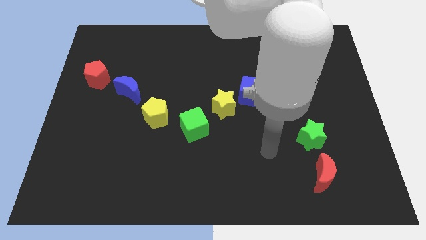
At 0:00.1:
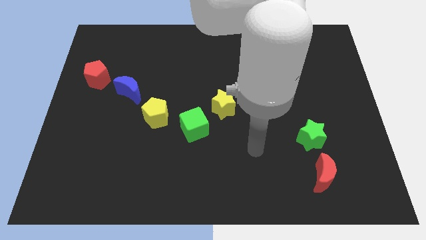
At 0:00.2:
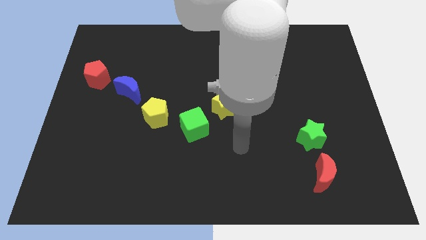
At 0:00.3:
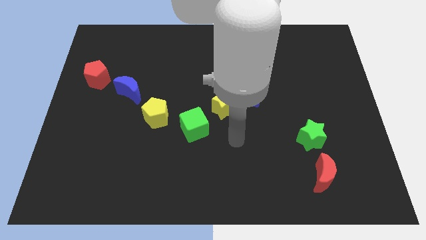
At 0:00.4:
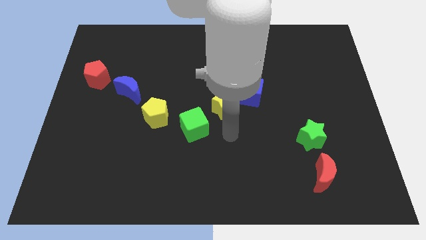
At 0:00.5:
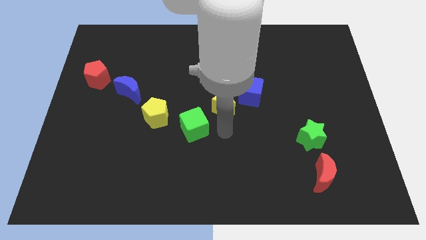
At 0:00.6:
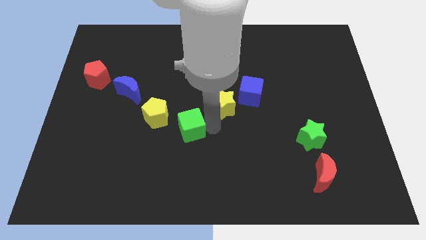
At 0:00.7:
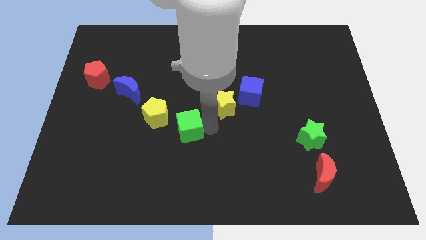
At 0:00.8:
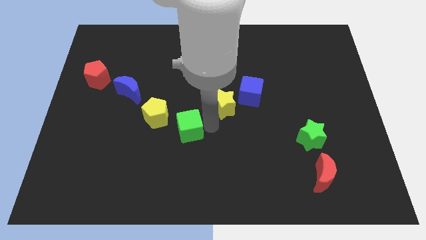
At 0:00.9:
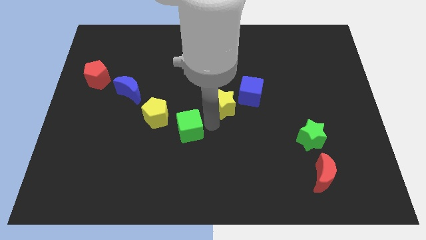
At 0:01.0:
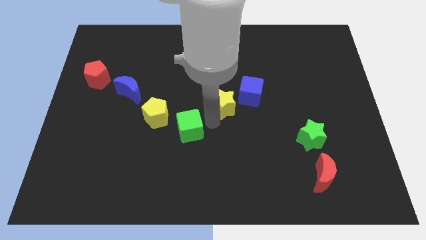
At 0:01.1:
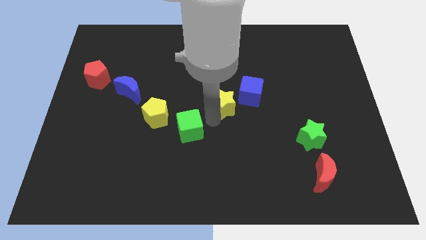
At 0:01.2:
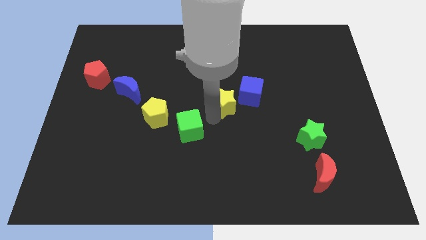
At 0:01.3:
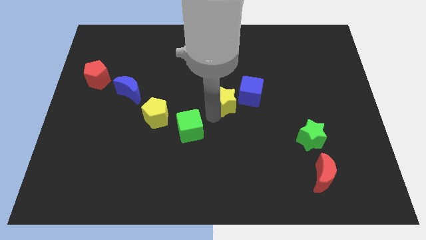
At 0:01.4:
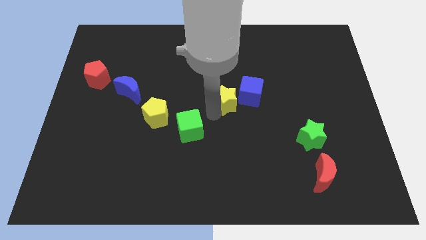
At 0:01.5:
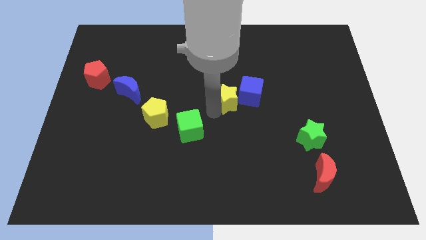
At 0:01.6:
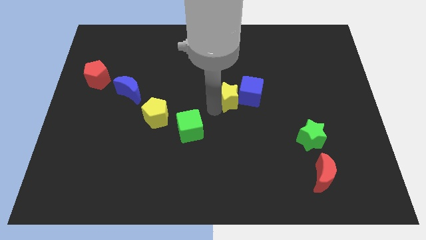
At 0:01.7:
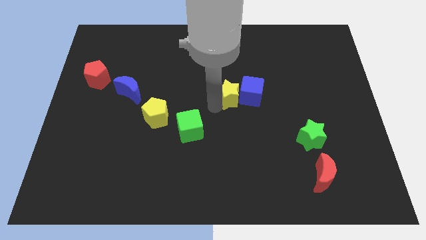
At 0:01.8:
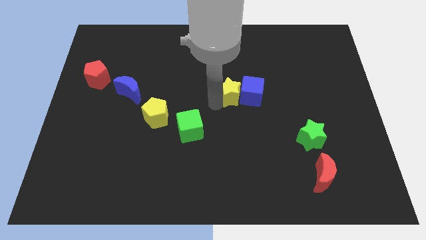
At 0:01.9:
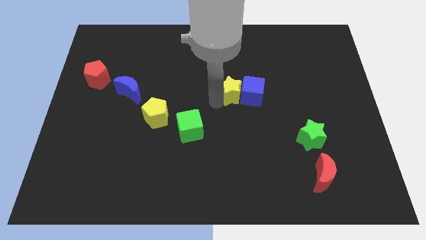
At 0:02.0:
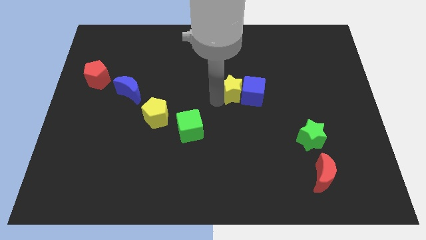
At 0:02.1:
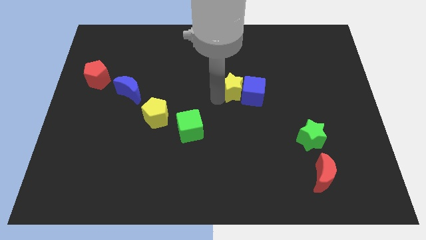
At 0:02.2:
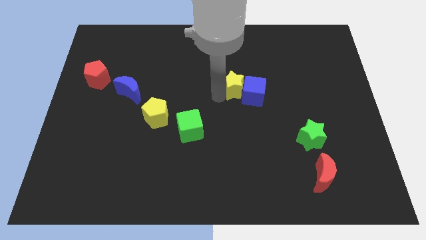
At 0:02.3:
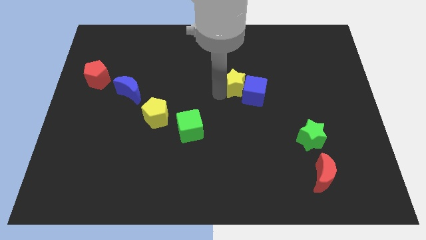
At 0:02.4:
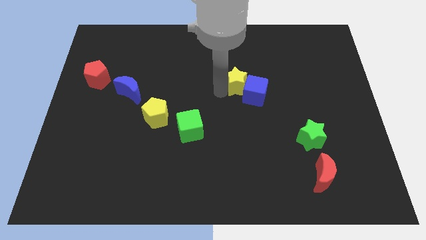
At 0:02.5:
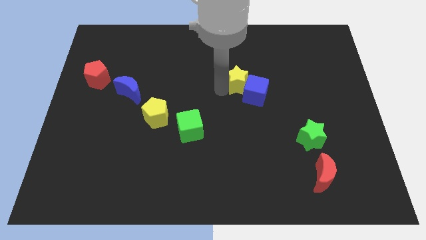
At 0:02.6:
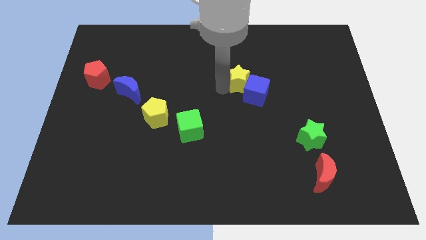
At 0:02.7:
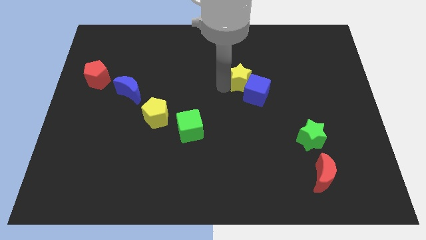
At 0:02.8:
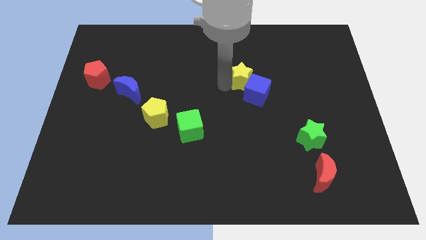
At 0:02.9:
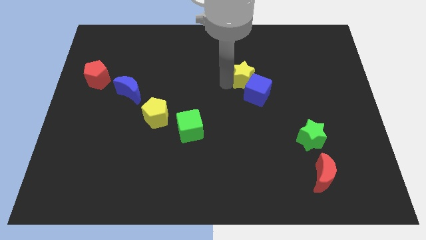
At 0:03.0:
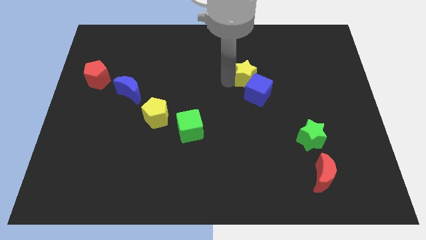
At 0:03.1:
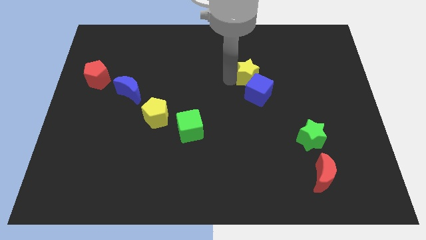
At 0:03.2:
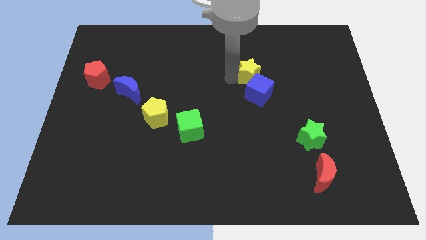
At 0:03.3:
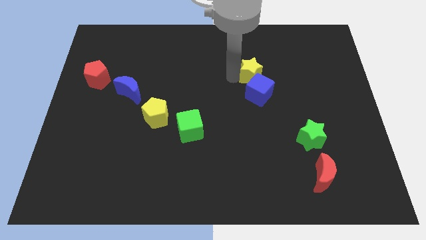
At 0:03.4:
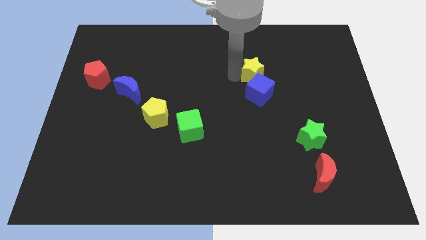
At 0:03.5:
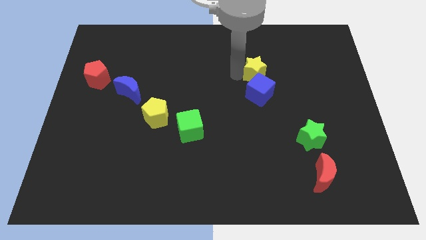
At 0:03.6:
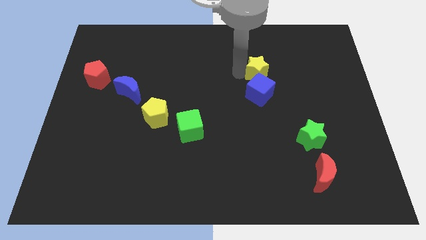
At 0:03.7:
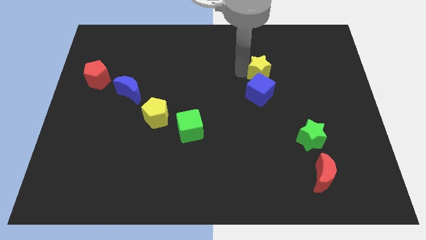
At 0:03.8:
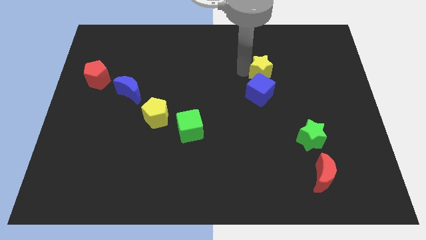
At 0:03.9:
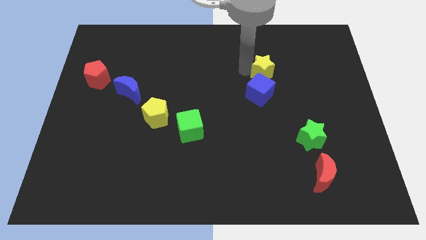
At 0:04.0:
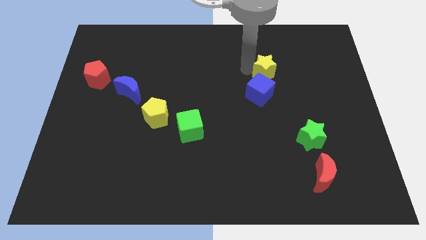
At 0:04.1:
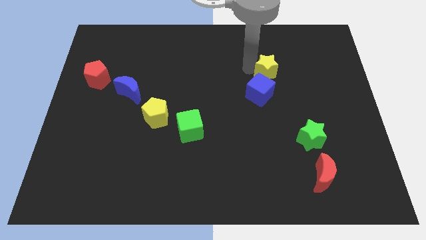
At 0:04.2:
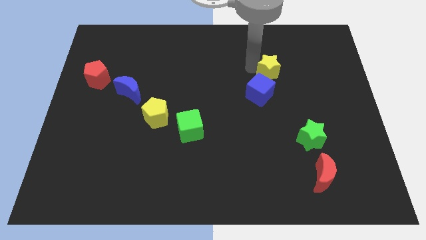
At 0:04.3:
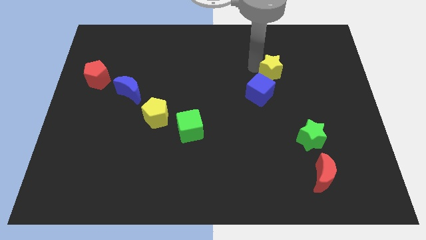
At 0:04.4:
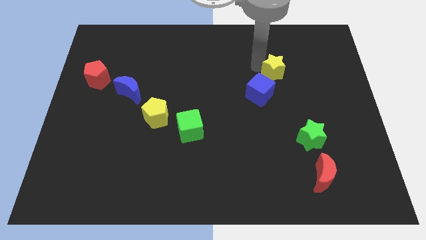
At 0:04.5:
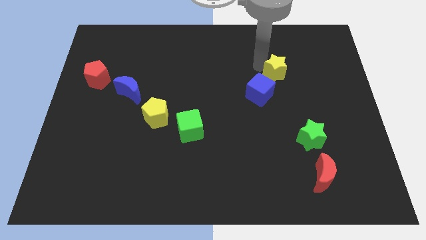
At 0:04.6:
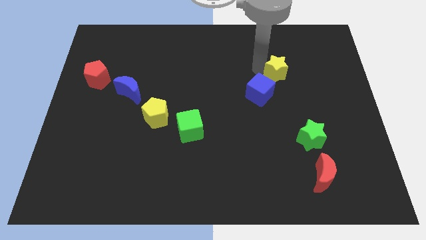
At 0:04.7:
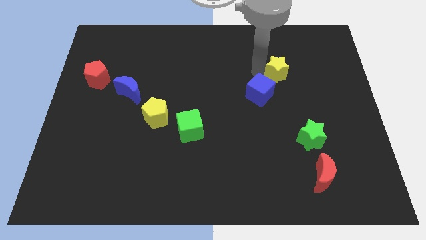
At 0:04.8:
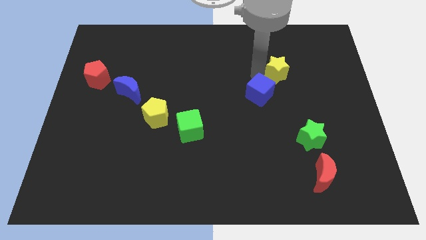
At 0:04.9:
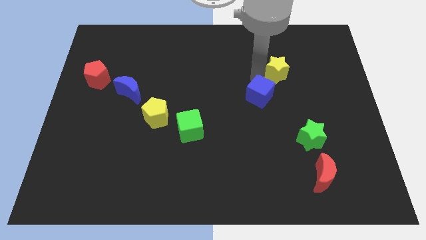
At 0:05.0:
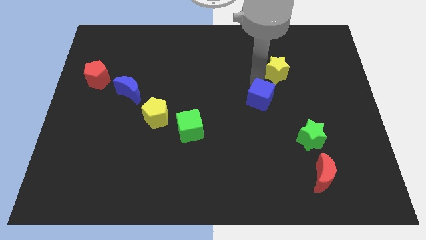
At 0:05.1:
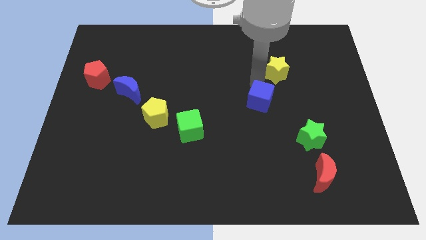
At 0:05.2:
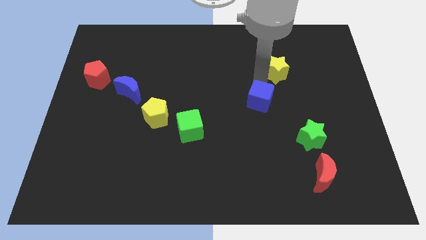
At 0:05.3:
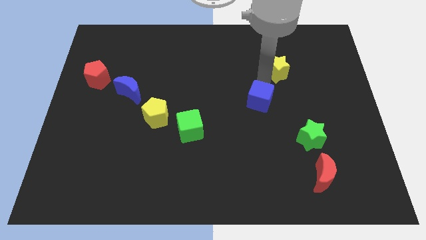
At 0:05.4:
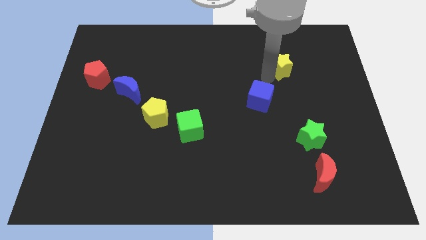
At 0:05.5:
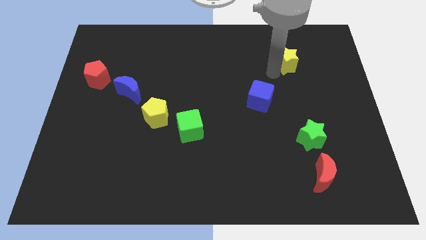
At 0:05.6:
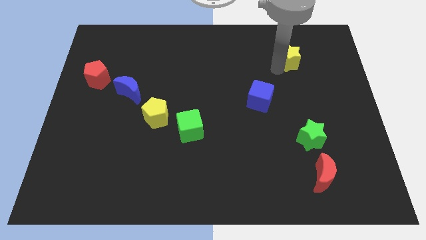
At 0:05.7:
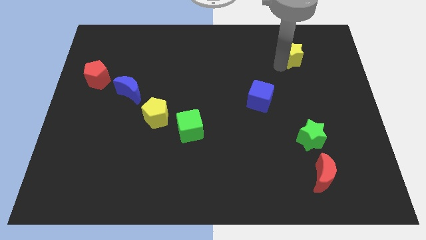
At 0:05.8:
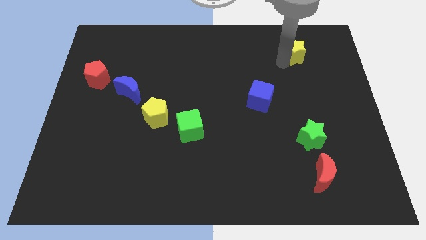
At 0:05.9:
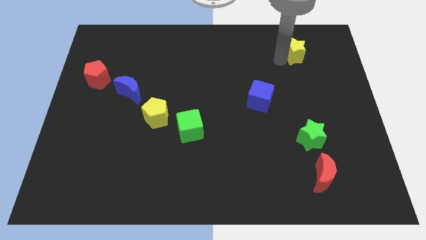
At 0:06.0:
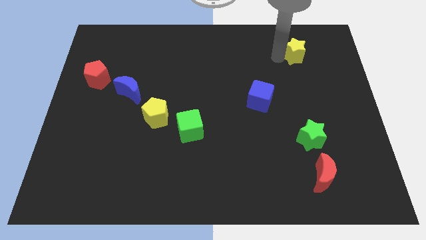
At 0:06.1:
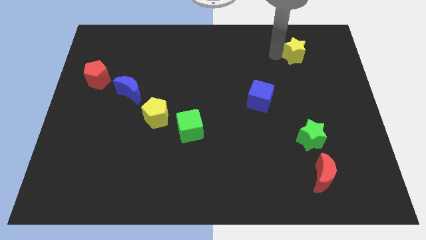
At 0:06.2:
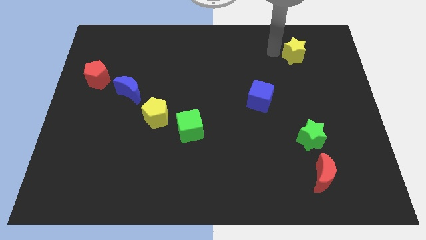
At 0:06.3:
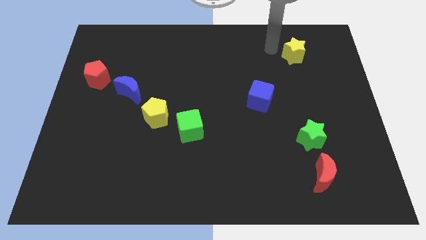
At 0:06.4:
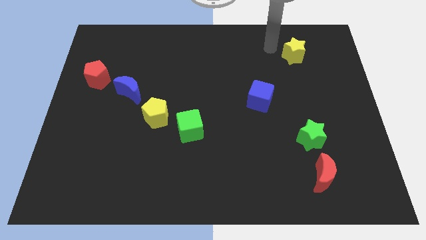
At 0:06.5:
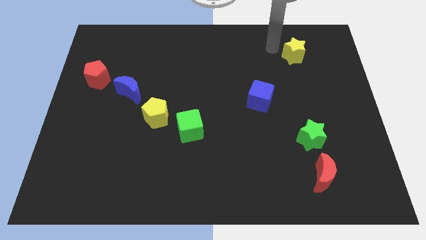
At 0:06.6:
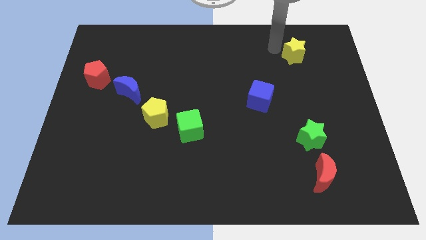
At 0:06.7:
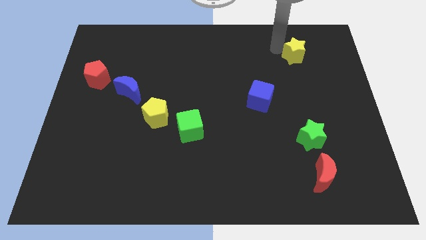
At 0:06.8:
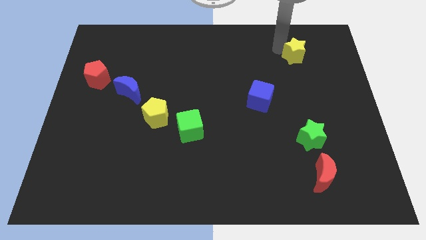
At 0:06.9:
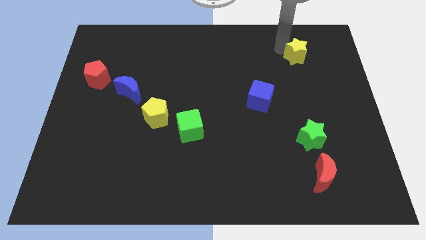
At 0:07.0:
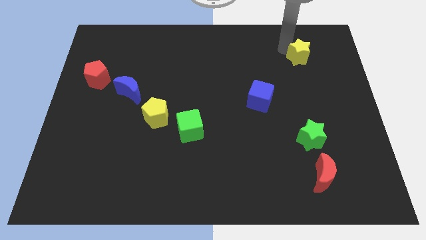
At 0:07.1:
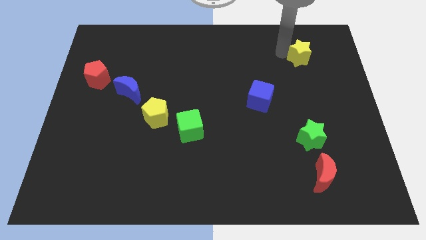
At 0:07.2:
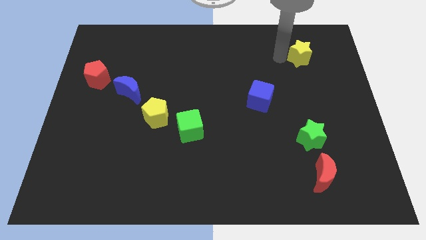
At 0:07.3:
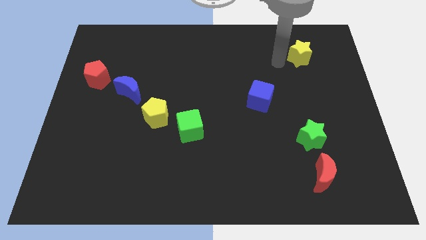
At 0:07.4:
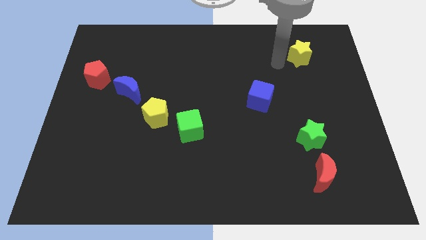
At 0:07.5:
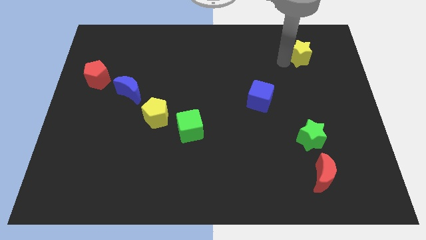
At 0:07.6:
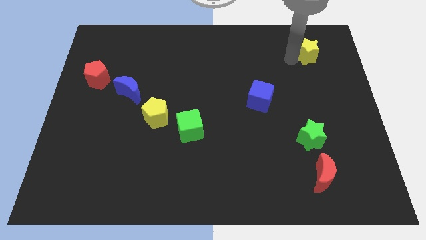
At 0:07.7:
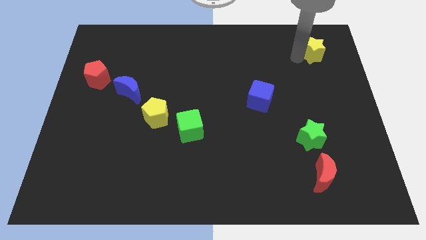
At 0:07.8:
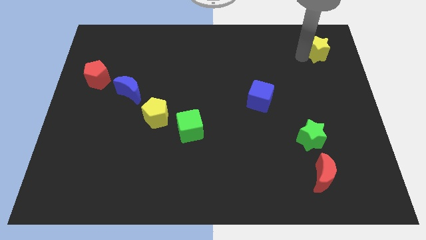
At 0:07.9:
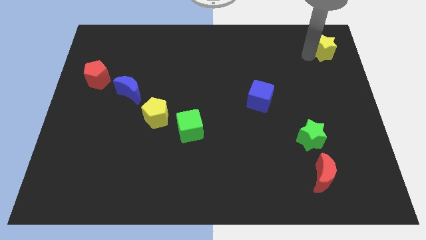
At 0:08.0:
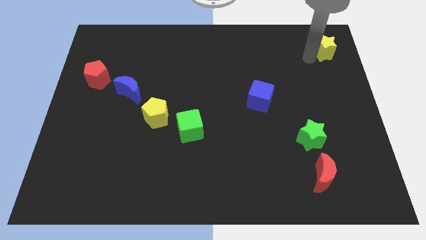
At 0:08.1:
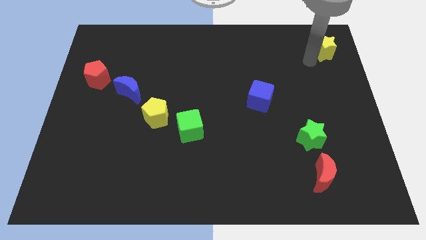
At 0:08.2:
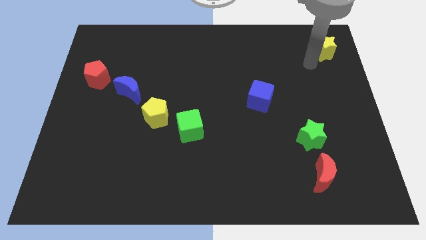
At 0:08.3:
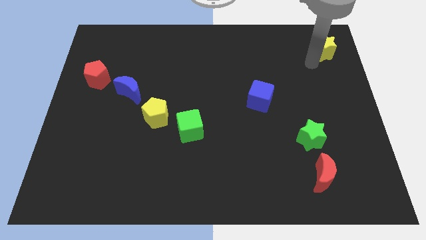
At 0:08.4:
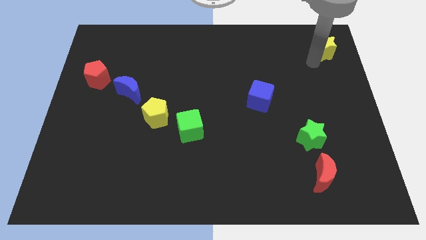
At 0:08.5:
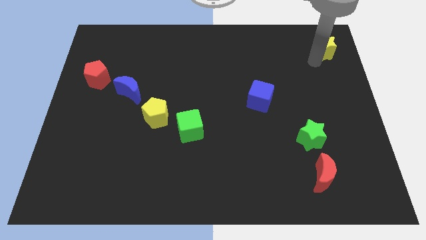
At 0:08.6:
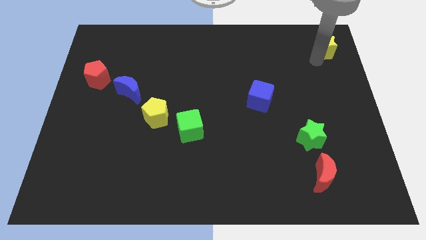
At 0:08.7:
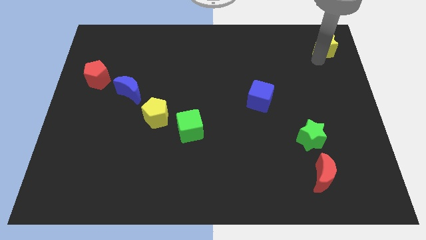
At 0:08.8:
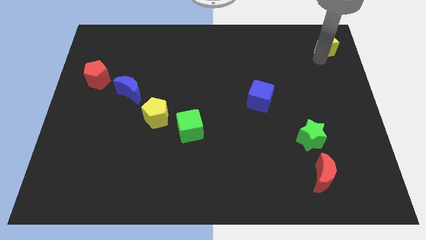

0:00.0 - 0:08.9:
slide the yellow star to the top right of the board
